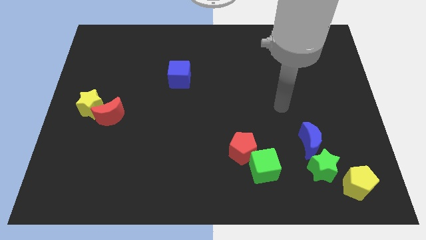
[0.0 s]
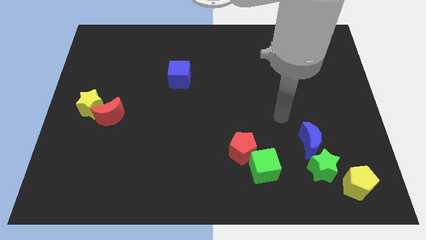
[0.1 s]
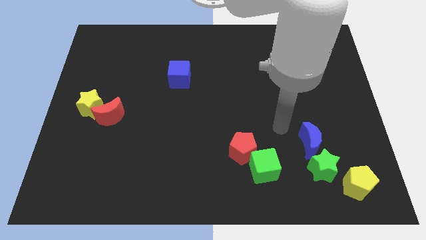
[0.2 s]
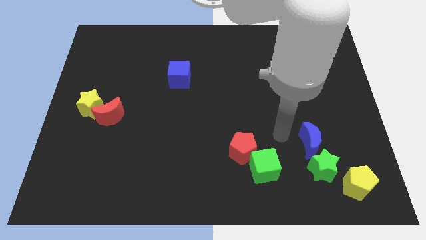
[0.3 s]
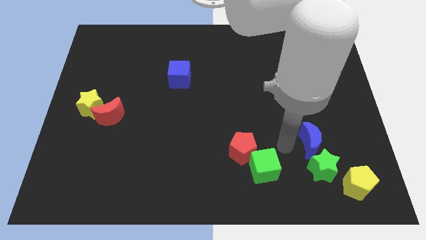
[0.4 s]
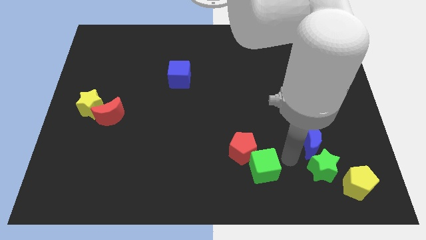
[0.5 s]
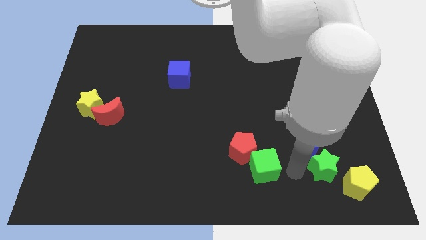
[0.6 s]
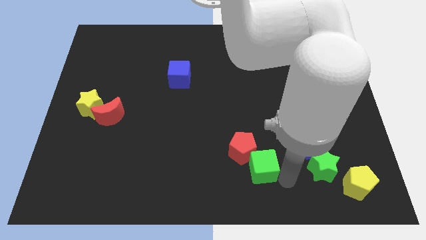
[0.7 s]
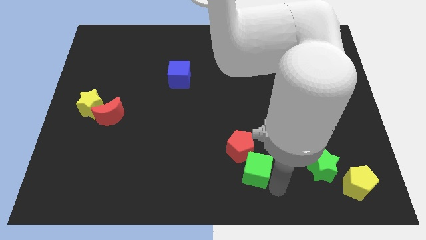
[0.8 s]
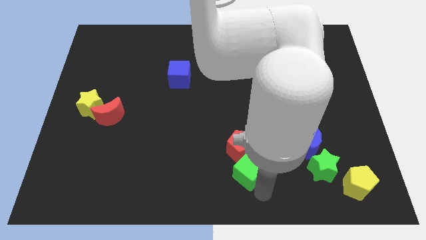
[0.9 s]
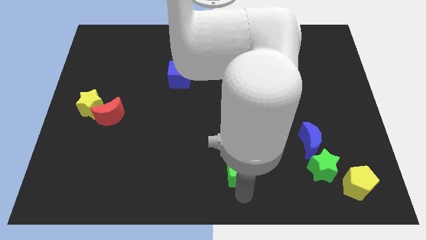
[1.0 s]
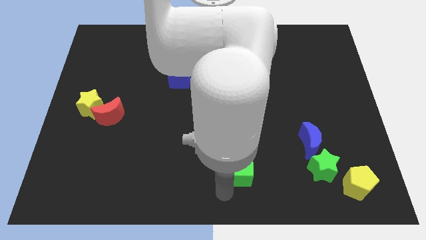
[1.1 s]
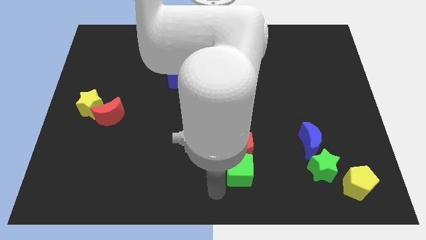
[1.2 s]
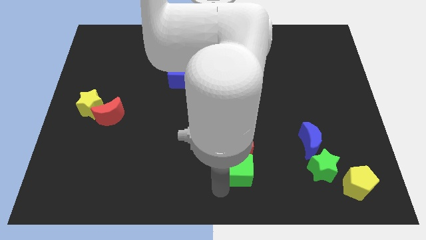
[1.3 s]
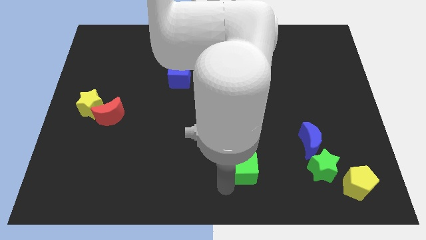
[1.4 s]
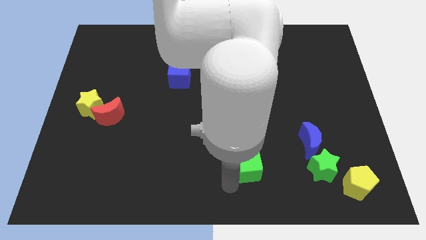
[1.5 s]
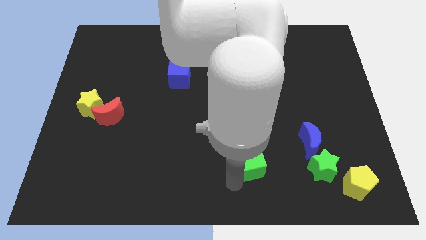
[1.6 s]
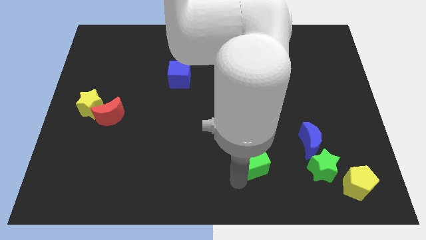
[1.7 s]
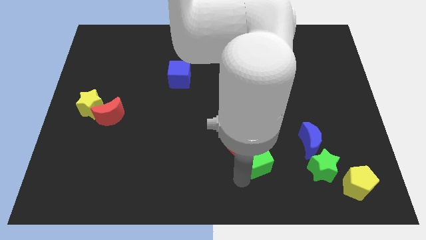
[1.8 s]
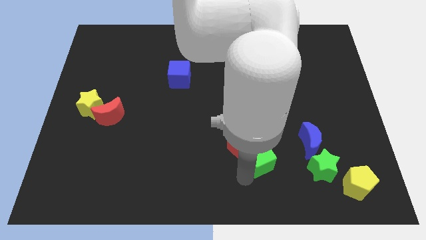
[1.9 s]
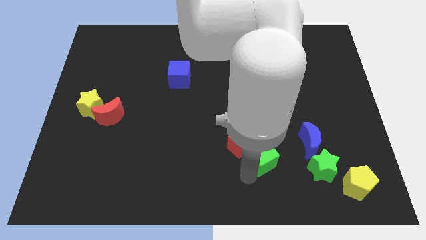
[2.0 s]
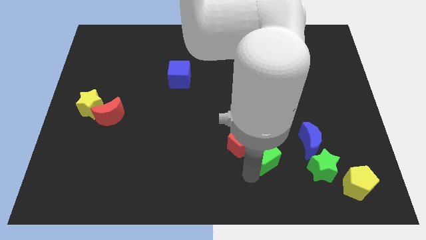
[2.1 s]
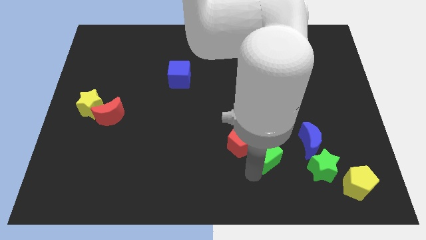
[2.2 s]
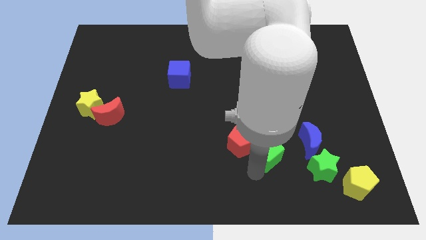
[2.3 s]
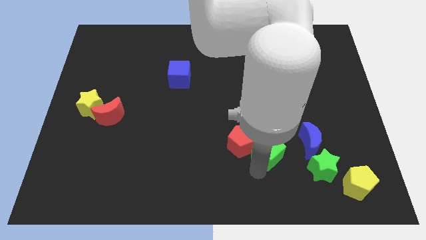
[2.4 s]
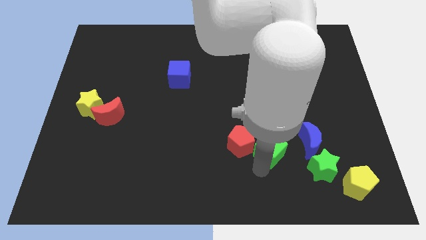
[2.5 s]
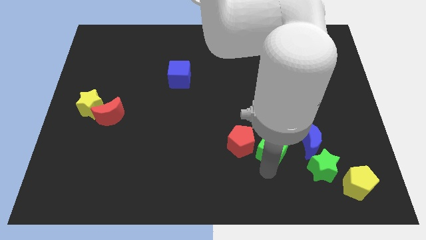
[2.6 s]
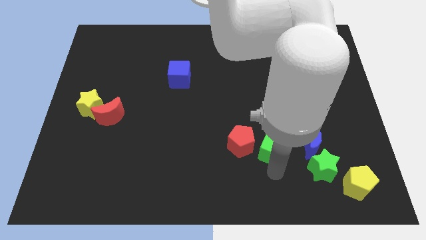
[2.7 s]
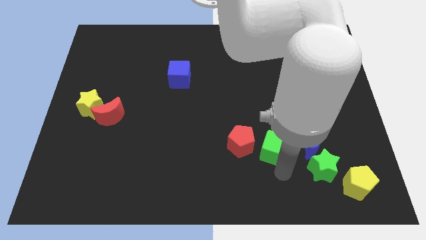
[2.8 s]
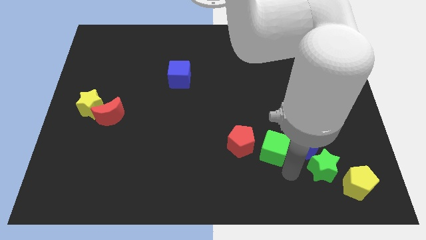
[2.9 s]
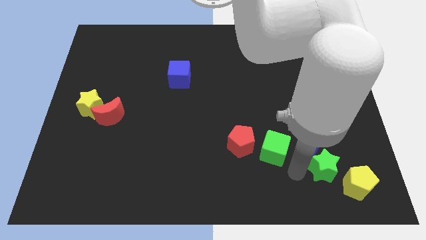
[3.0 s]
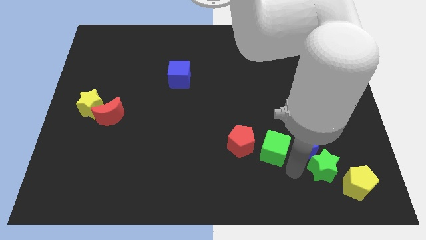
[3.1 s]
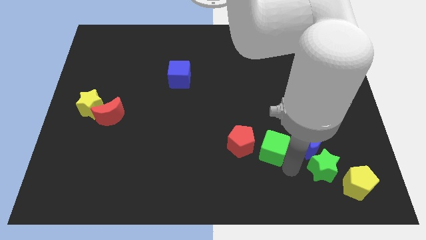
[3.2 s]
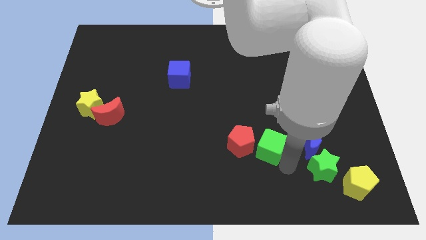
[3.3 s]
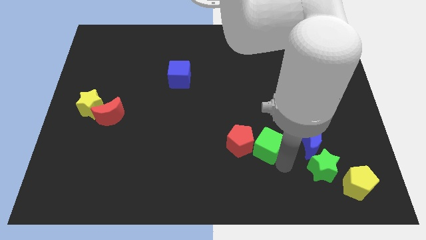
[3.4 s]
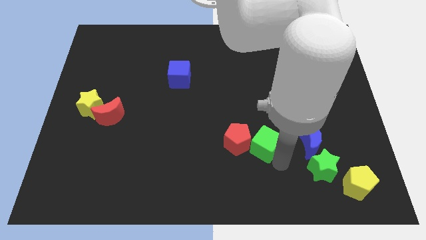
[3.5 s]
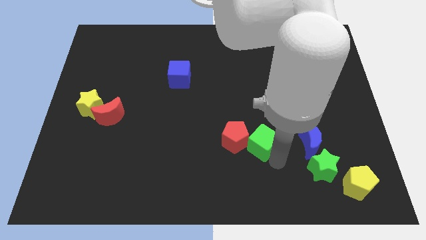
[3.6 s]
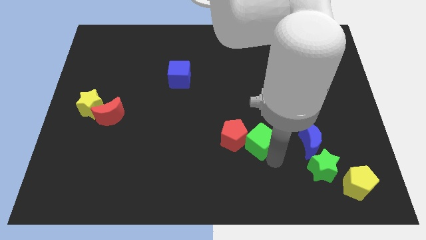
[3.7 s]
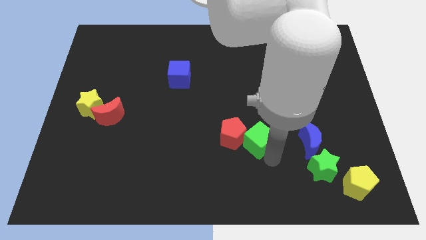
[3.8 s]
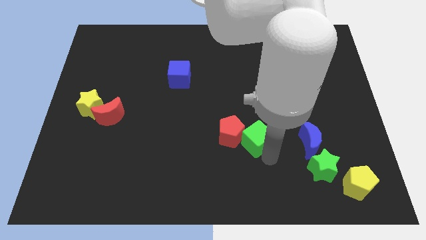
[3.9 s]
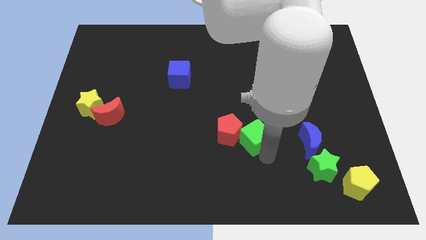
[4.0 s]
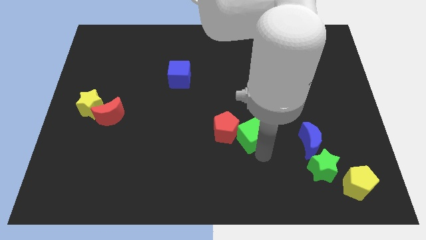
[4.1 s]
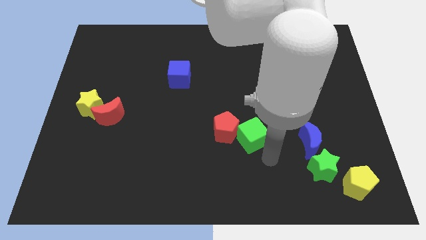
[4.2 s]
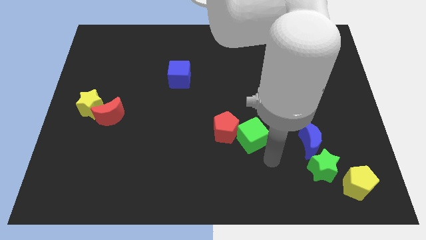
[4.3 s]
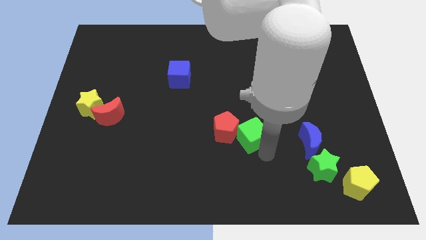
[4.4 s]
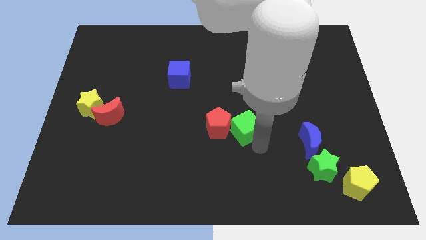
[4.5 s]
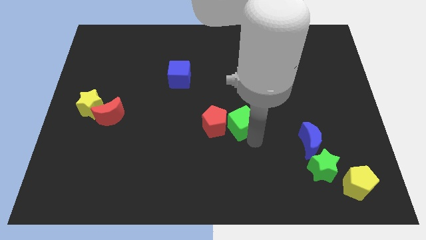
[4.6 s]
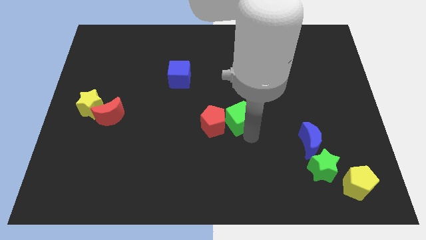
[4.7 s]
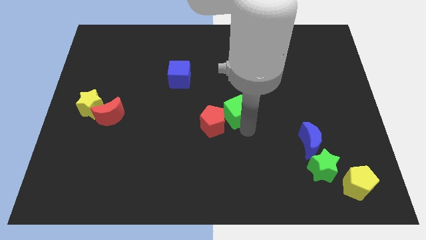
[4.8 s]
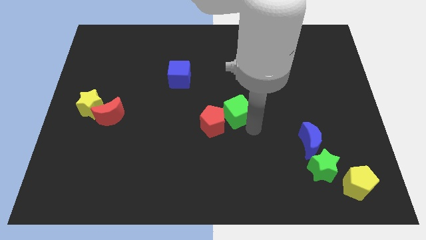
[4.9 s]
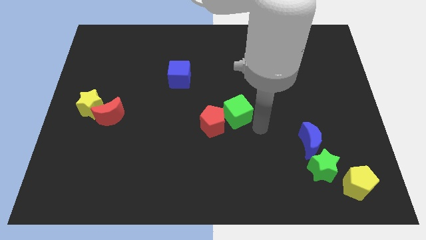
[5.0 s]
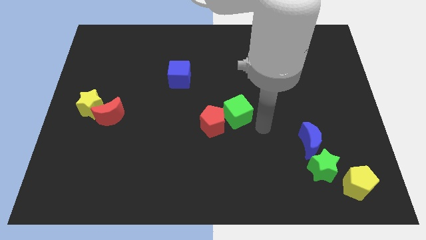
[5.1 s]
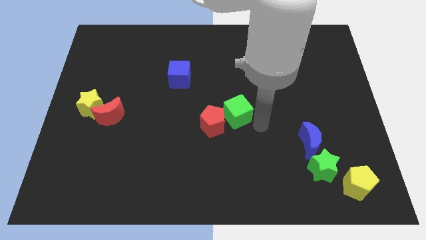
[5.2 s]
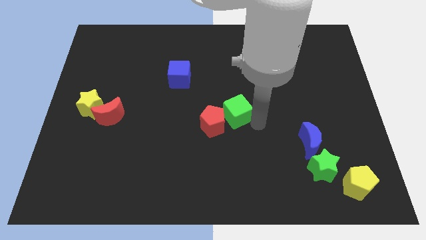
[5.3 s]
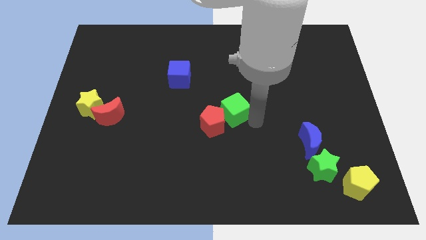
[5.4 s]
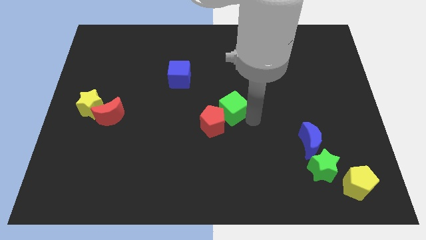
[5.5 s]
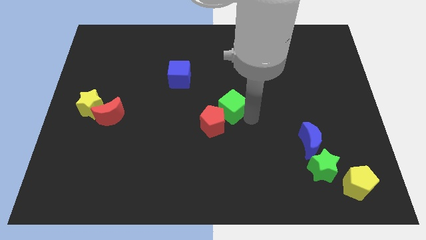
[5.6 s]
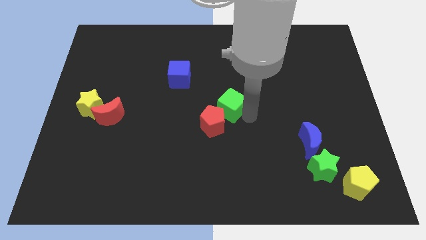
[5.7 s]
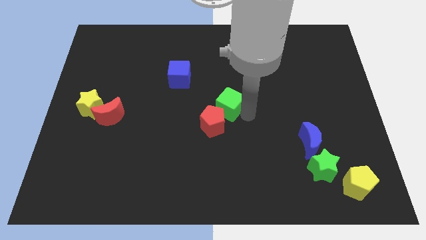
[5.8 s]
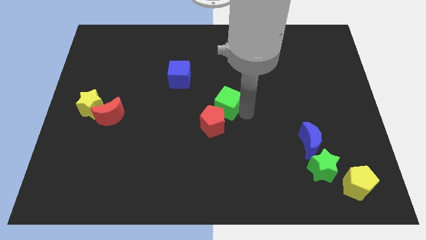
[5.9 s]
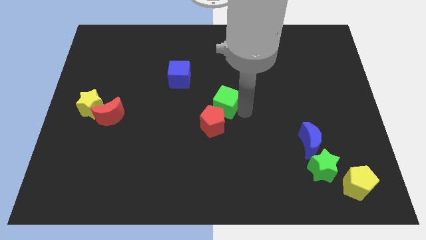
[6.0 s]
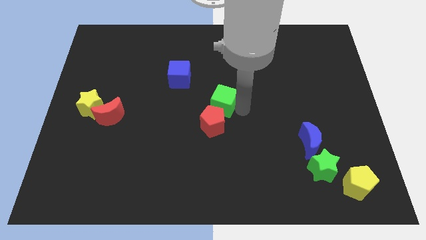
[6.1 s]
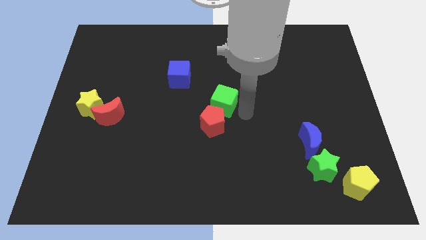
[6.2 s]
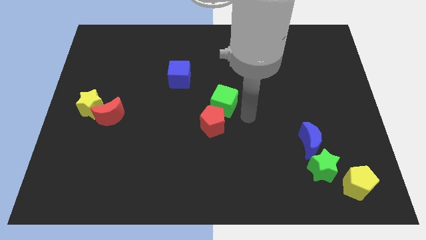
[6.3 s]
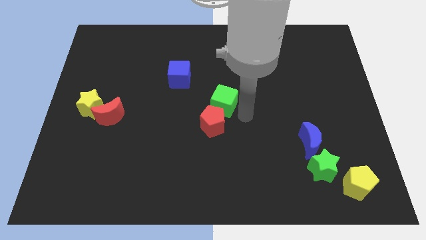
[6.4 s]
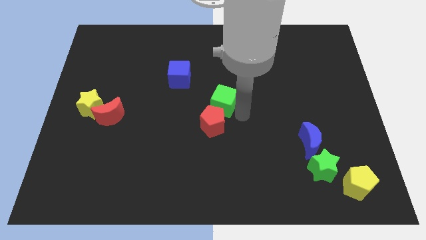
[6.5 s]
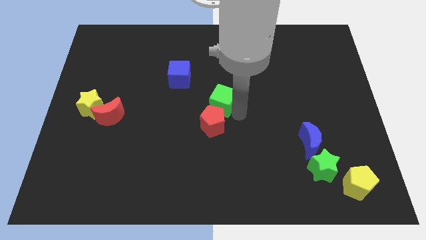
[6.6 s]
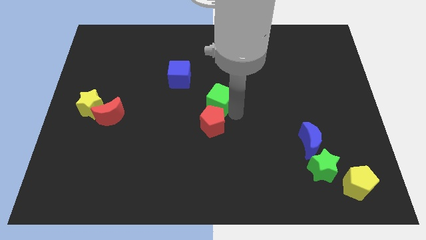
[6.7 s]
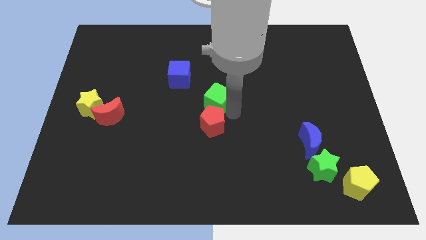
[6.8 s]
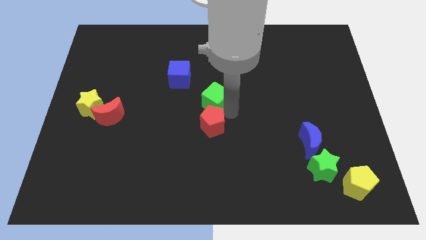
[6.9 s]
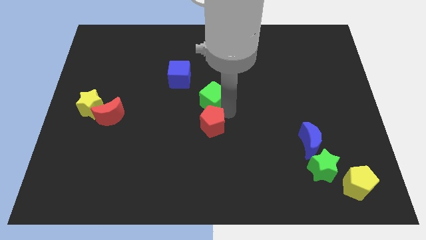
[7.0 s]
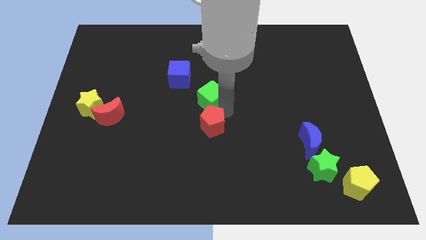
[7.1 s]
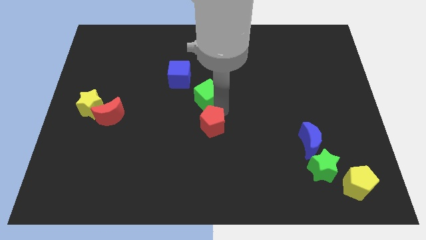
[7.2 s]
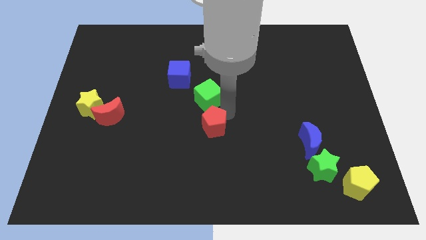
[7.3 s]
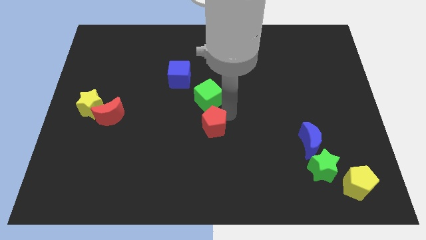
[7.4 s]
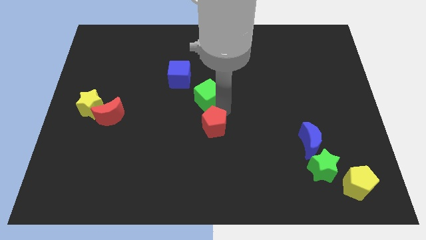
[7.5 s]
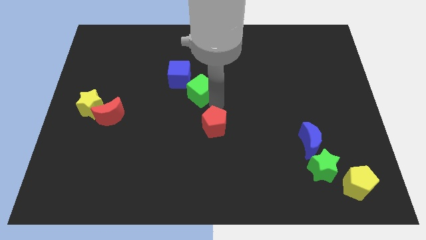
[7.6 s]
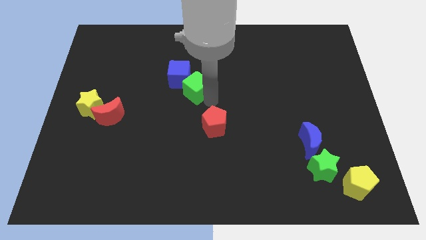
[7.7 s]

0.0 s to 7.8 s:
move the green cube to the blue cube
